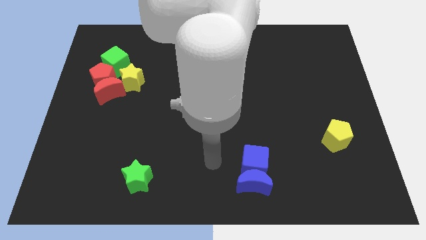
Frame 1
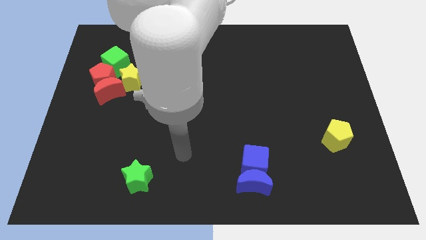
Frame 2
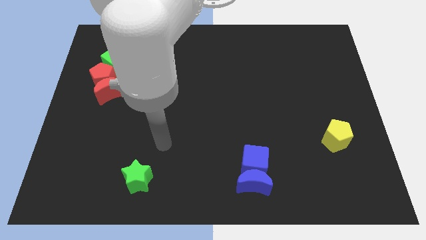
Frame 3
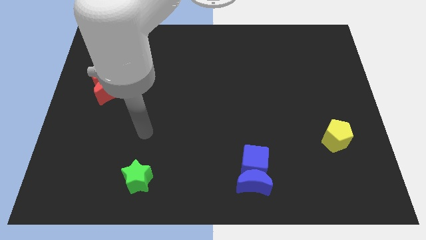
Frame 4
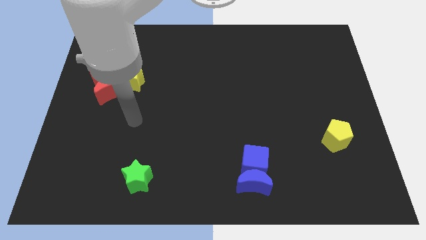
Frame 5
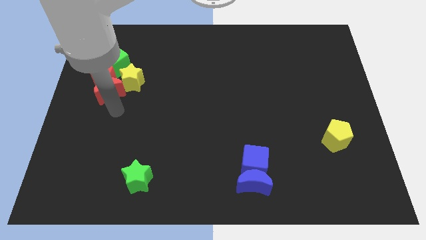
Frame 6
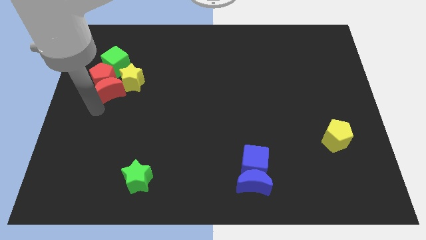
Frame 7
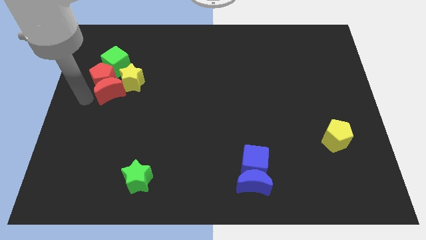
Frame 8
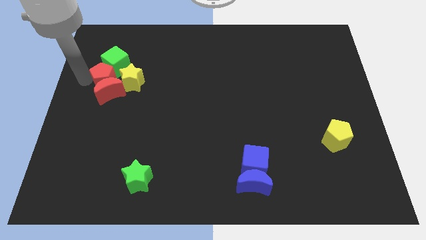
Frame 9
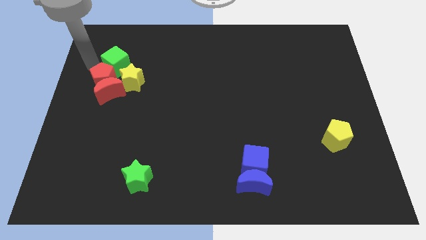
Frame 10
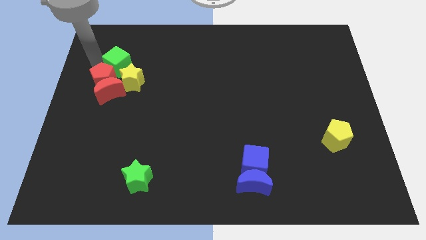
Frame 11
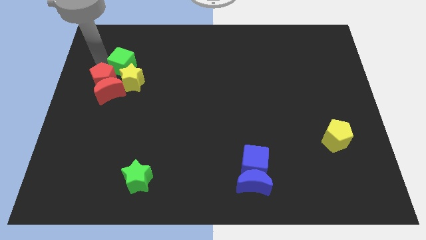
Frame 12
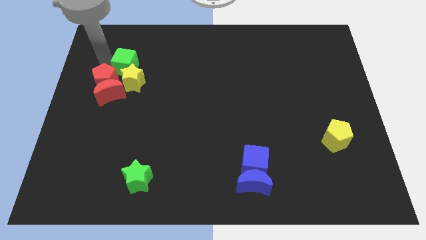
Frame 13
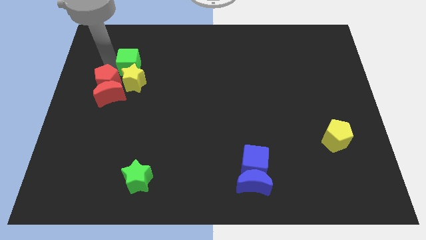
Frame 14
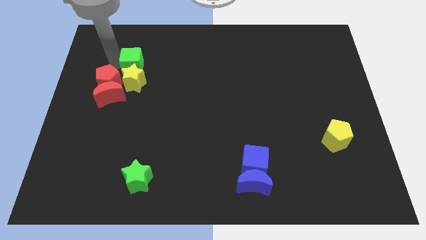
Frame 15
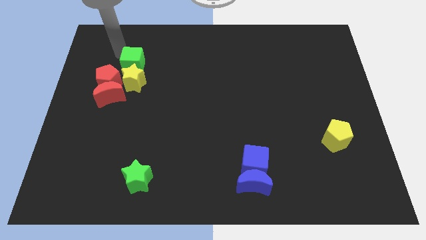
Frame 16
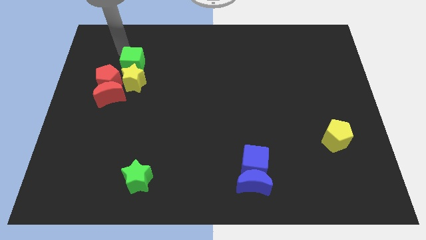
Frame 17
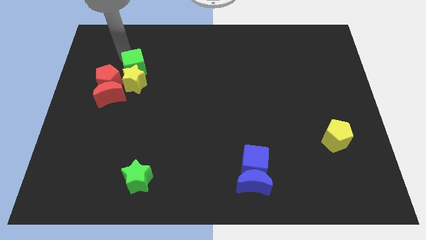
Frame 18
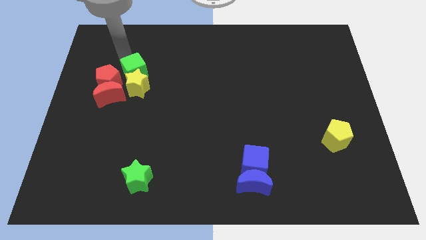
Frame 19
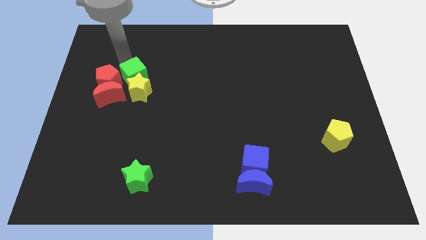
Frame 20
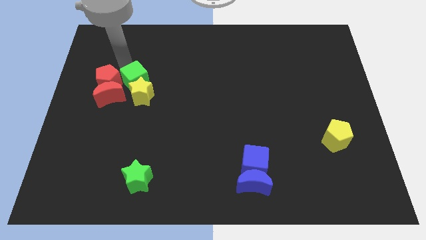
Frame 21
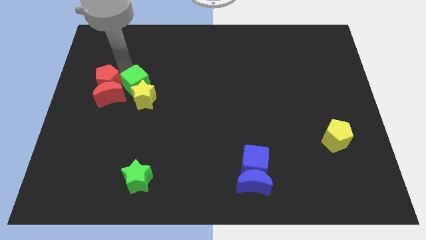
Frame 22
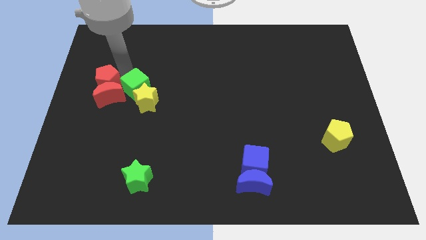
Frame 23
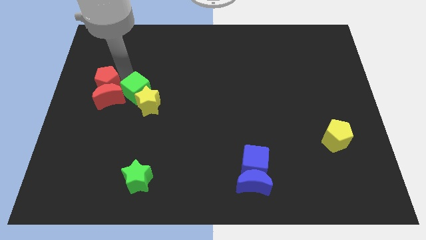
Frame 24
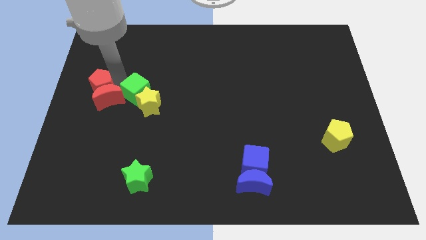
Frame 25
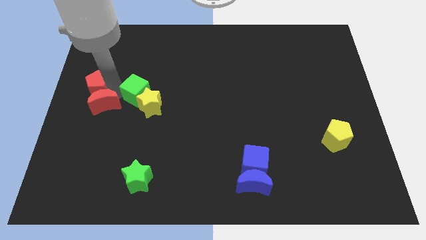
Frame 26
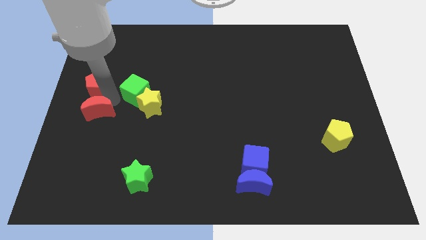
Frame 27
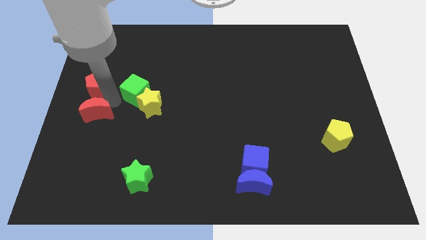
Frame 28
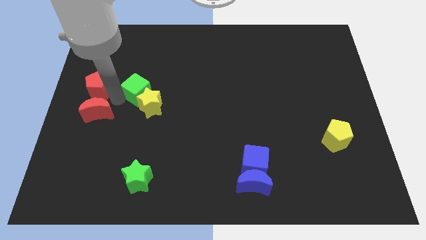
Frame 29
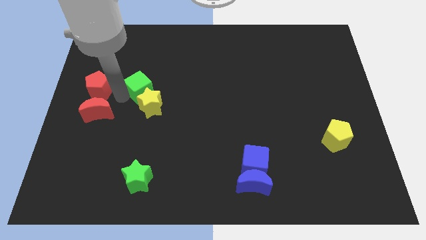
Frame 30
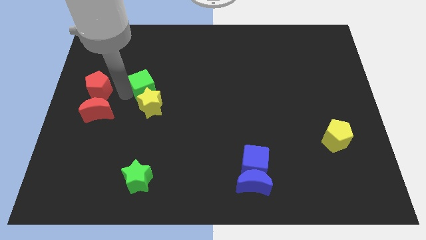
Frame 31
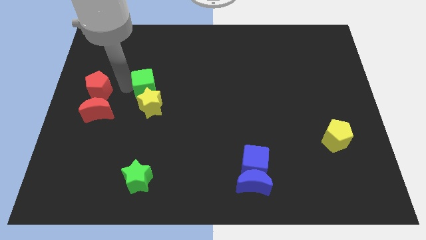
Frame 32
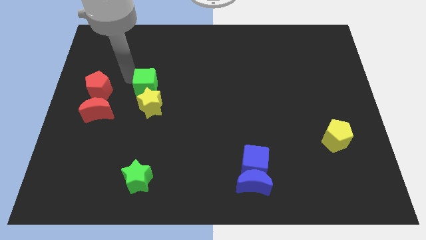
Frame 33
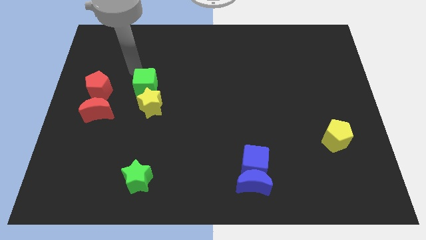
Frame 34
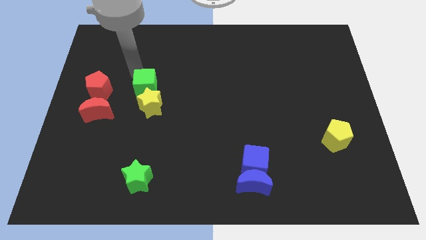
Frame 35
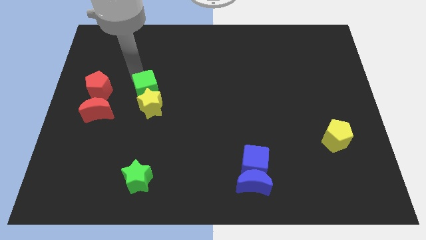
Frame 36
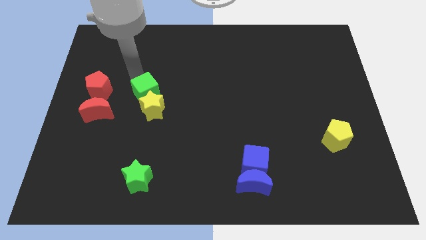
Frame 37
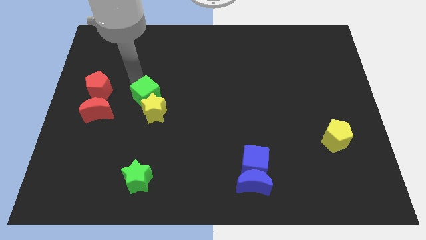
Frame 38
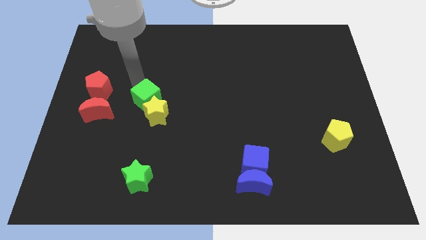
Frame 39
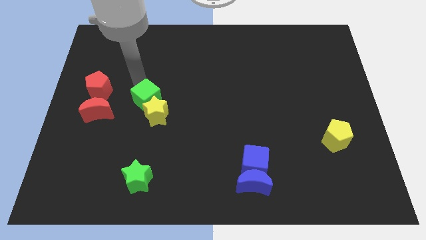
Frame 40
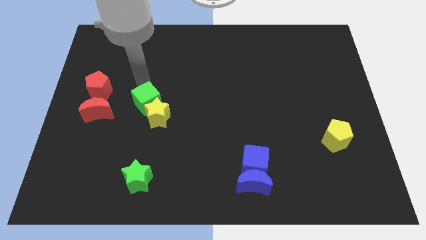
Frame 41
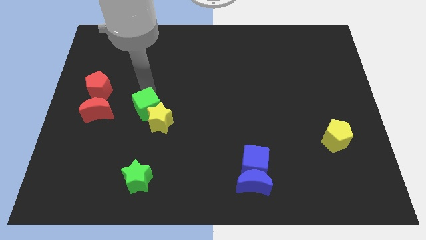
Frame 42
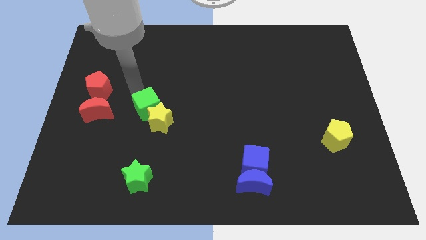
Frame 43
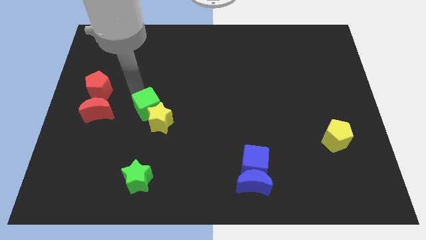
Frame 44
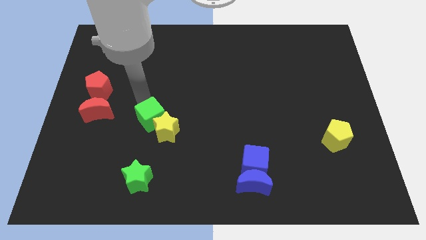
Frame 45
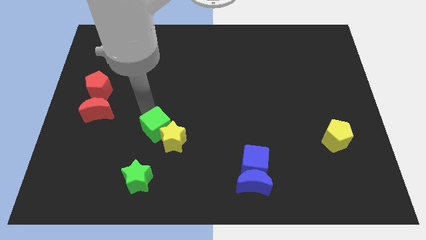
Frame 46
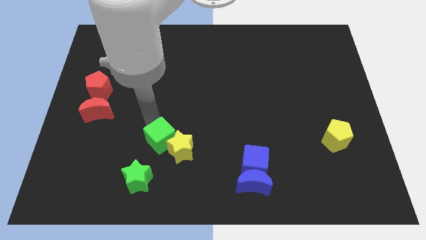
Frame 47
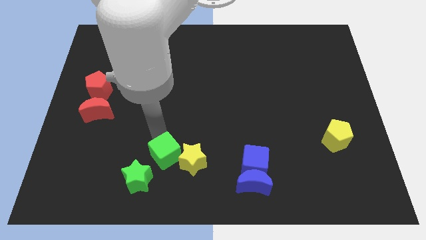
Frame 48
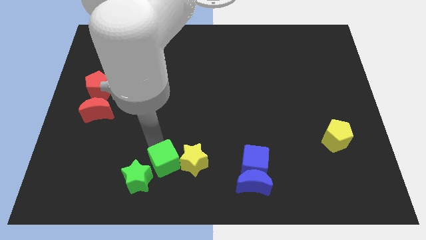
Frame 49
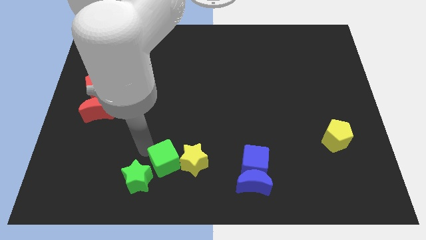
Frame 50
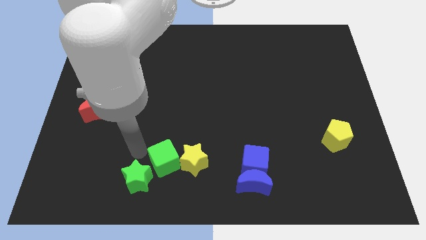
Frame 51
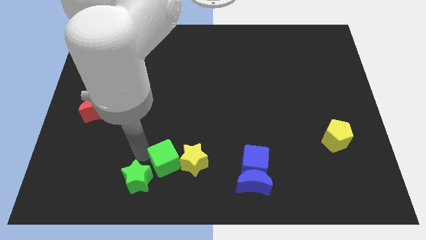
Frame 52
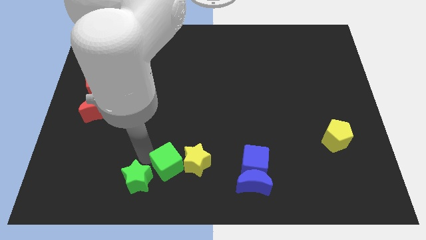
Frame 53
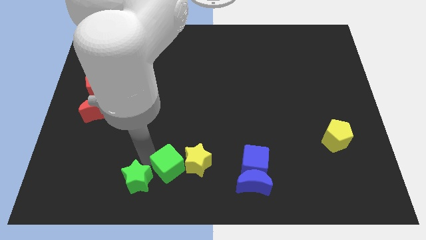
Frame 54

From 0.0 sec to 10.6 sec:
slide the green cube to the bottom

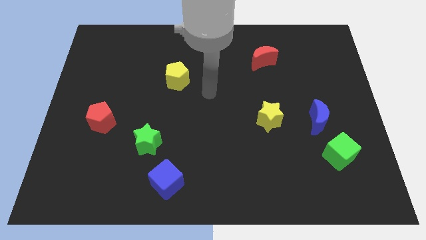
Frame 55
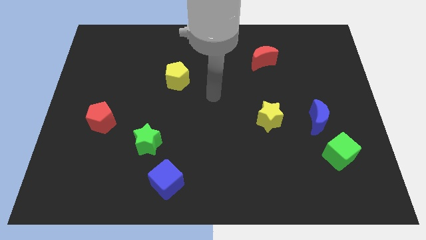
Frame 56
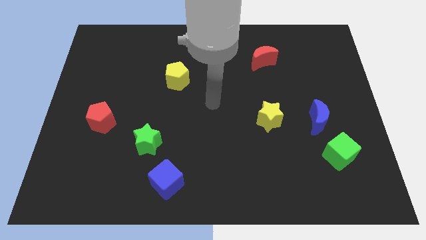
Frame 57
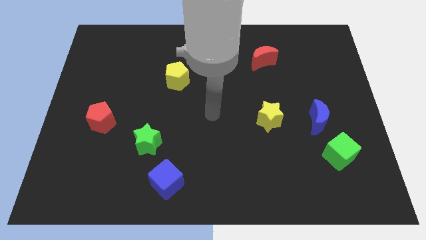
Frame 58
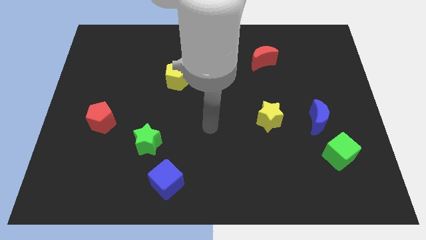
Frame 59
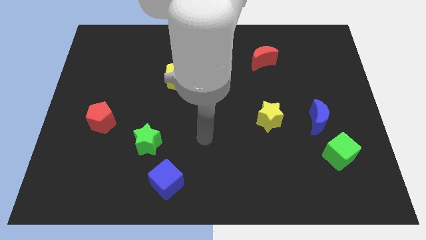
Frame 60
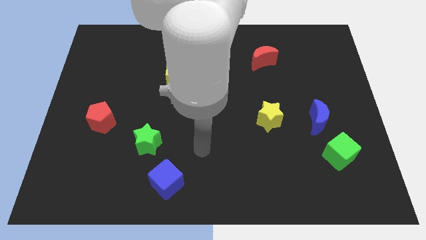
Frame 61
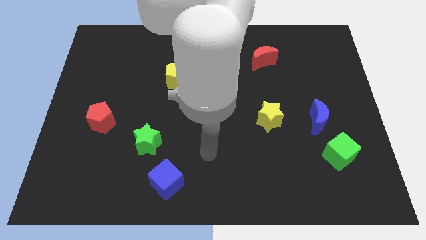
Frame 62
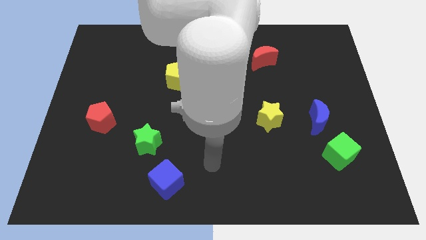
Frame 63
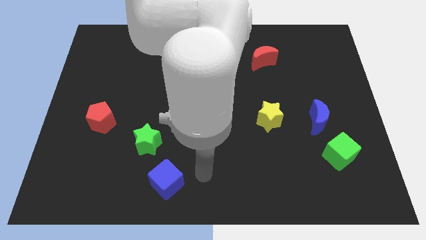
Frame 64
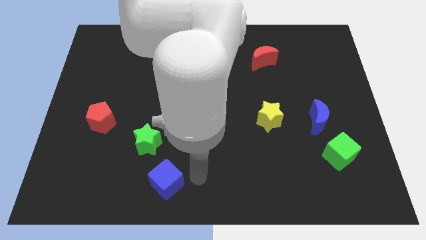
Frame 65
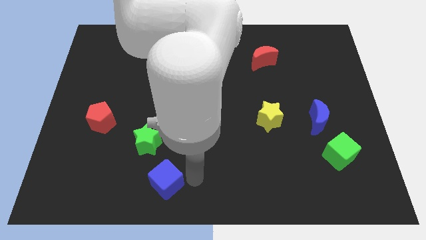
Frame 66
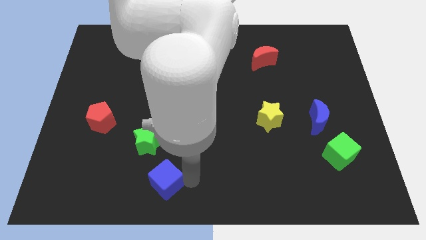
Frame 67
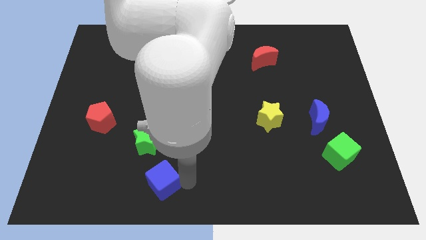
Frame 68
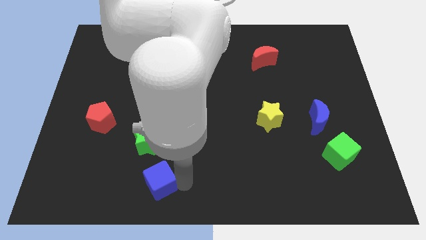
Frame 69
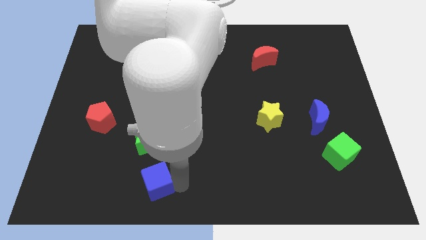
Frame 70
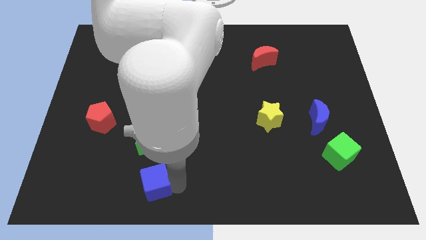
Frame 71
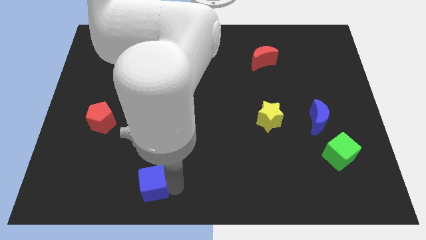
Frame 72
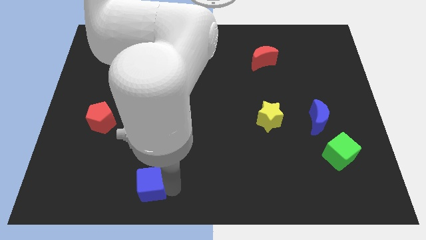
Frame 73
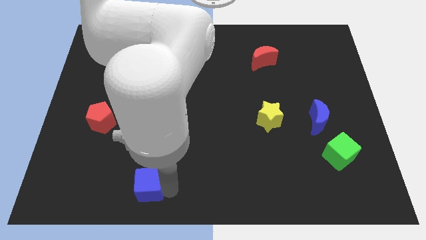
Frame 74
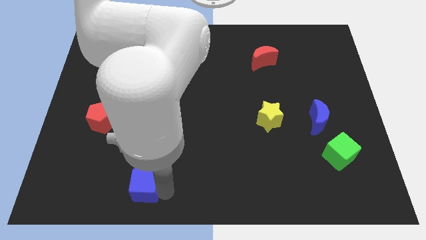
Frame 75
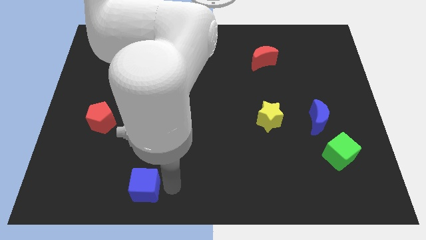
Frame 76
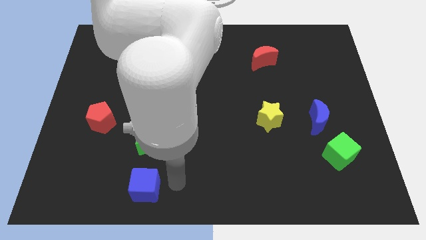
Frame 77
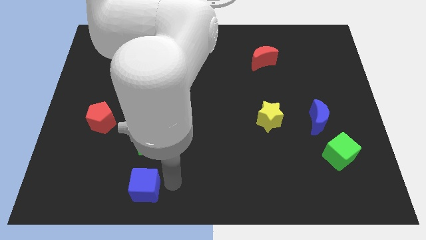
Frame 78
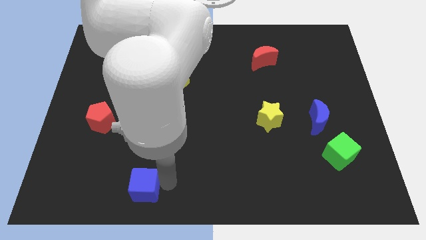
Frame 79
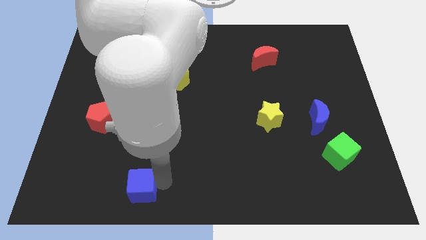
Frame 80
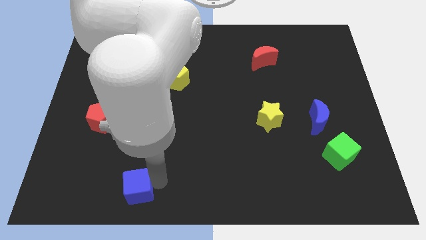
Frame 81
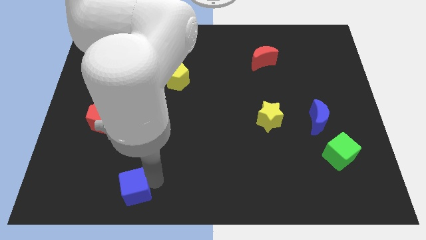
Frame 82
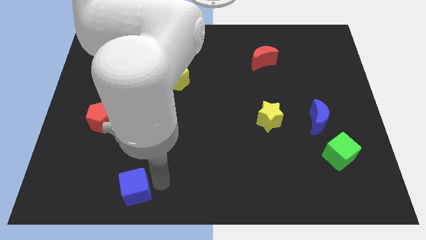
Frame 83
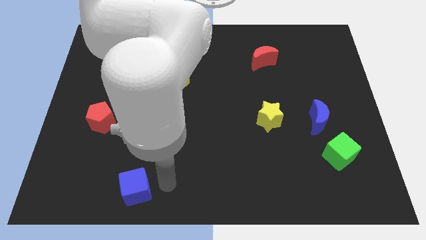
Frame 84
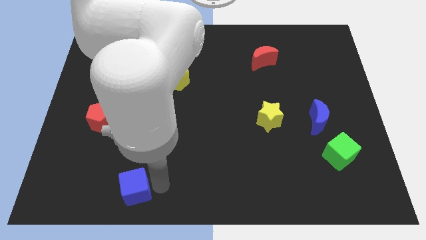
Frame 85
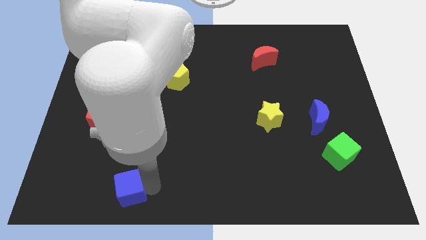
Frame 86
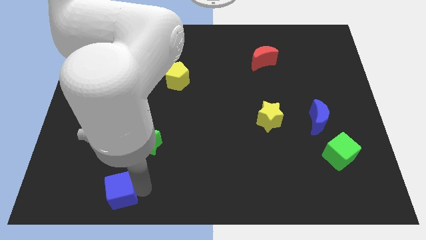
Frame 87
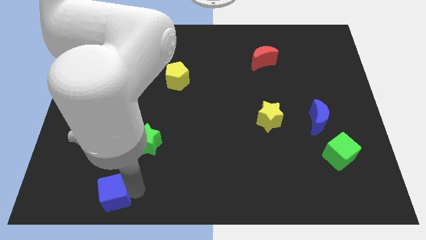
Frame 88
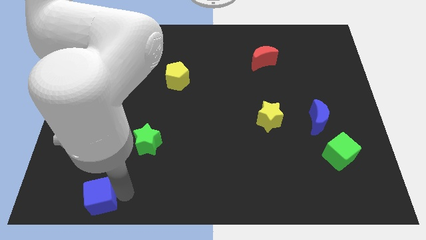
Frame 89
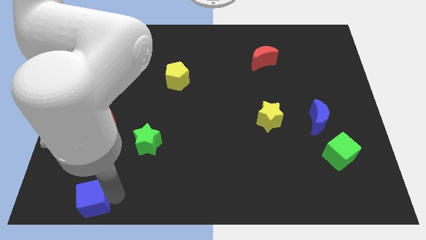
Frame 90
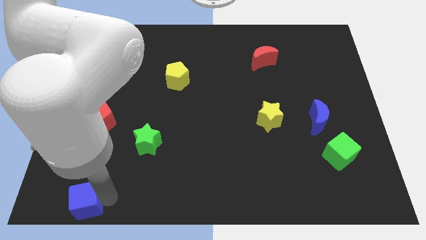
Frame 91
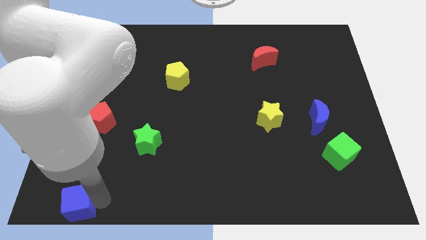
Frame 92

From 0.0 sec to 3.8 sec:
push the blue cube to the lower left corner
